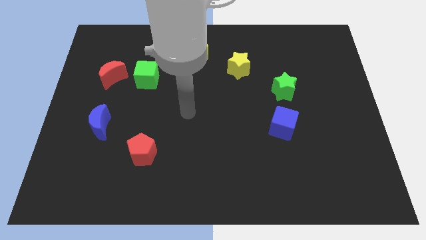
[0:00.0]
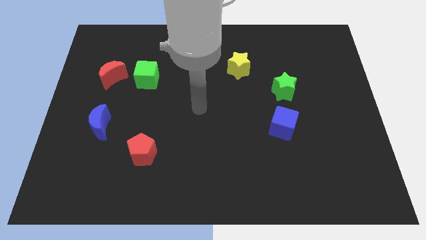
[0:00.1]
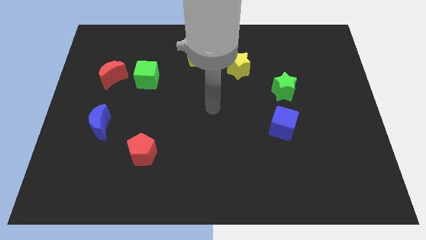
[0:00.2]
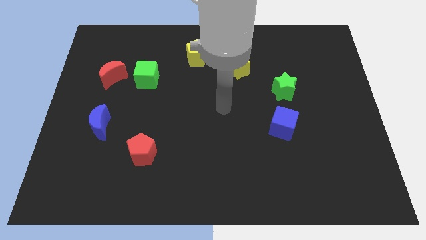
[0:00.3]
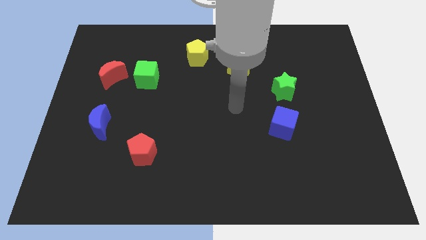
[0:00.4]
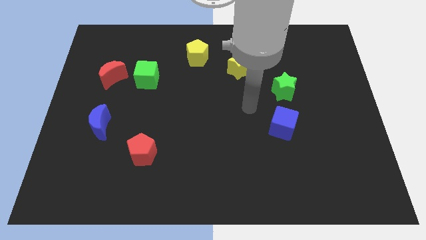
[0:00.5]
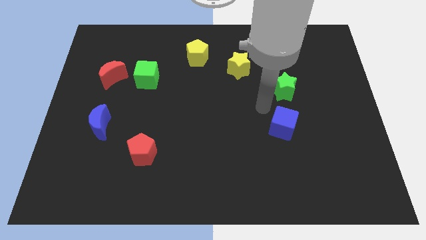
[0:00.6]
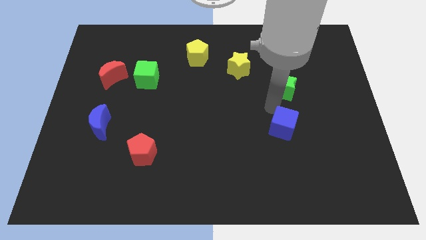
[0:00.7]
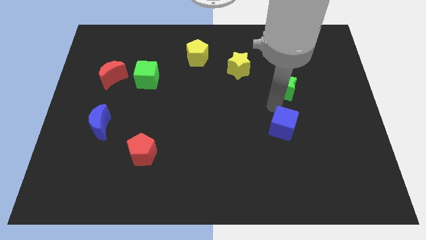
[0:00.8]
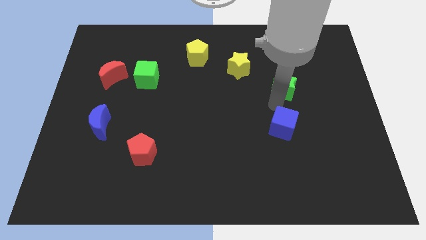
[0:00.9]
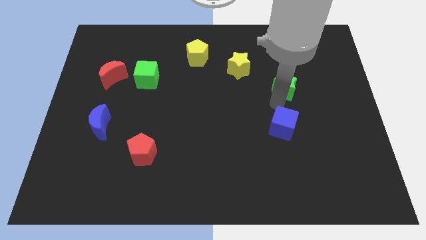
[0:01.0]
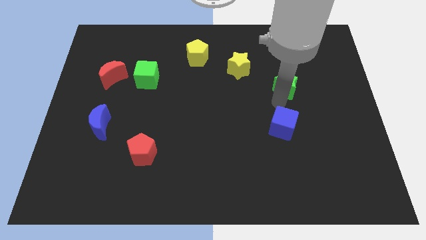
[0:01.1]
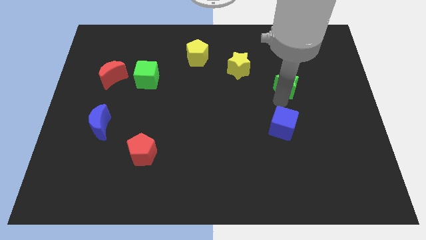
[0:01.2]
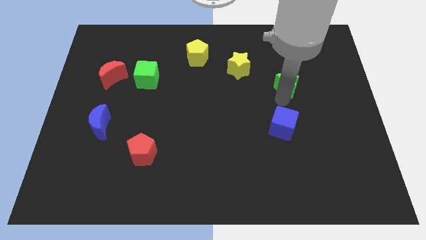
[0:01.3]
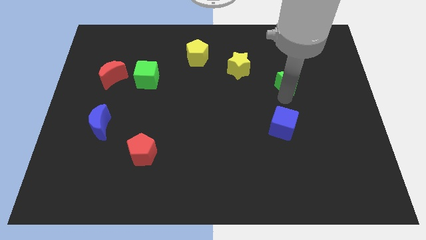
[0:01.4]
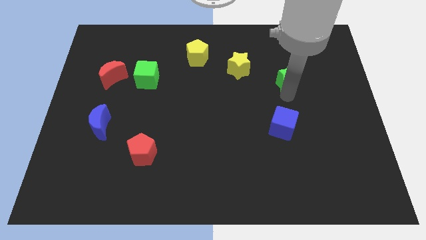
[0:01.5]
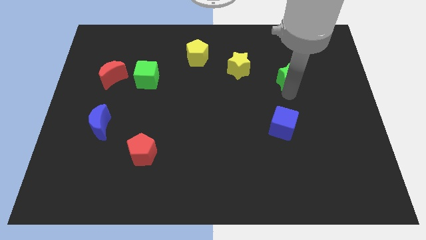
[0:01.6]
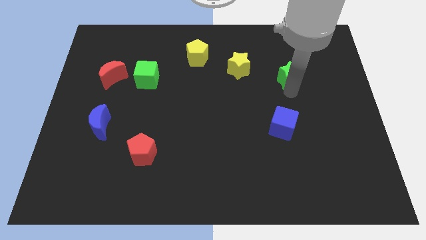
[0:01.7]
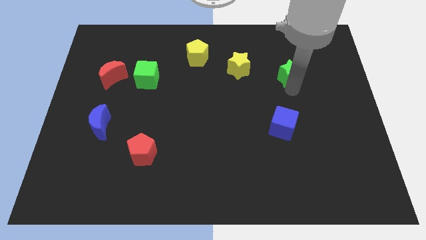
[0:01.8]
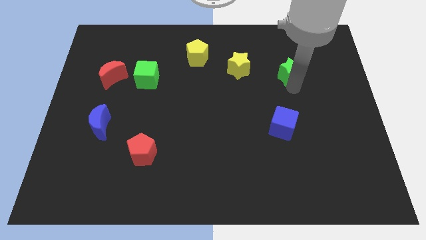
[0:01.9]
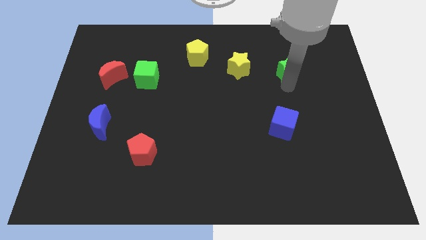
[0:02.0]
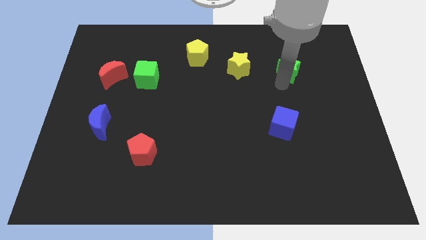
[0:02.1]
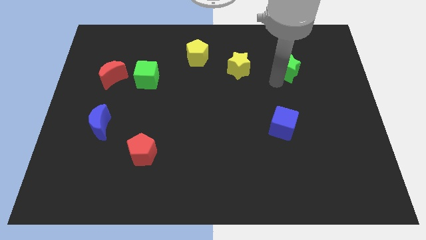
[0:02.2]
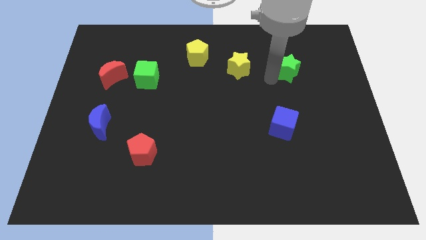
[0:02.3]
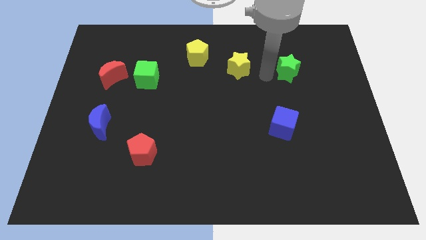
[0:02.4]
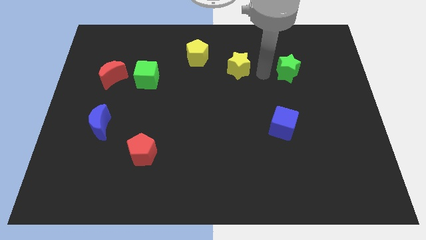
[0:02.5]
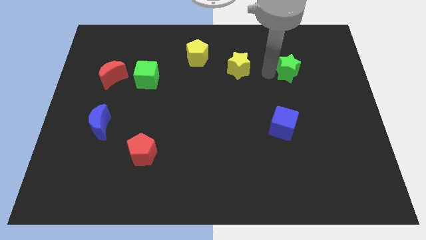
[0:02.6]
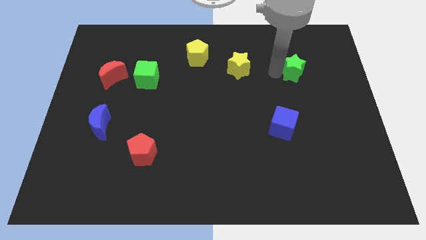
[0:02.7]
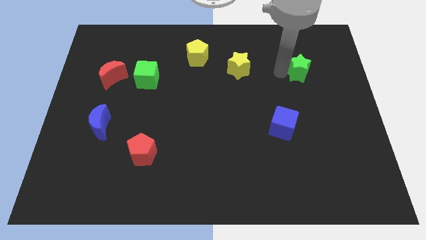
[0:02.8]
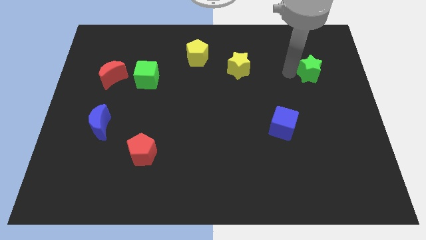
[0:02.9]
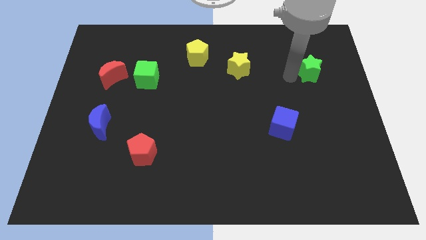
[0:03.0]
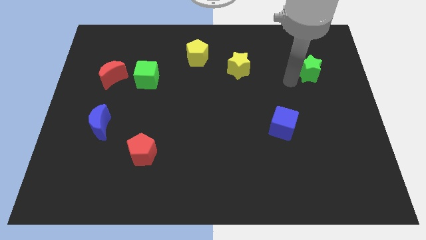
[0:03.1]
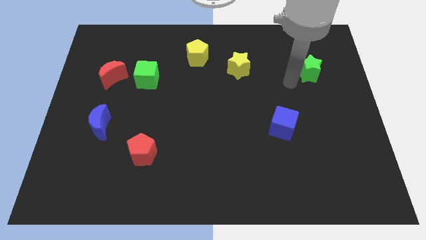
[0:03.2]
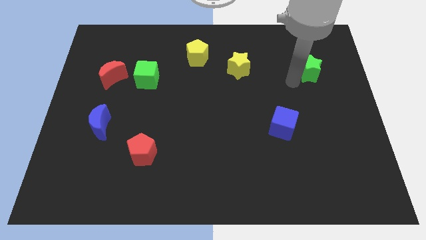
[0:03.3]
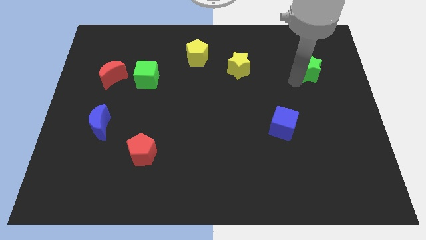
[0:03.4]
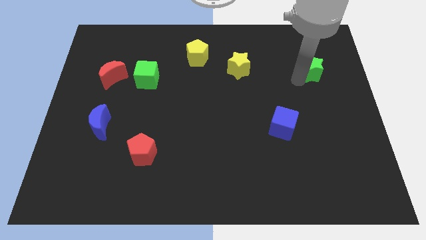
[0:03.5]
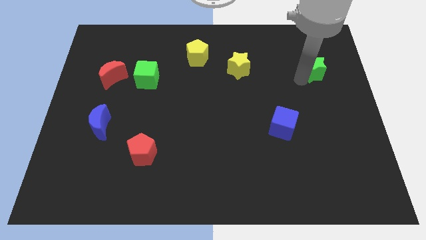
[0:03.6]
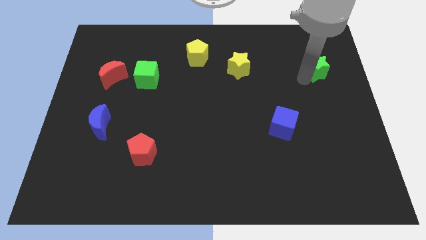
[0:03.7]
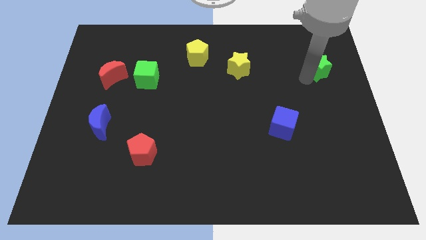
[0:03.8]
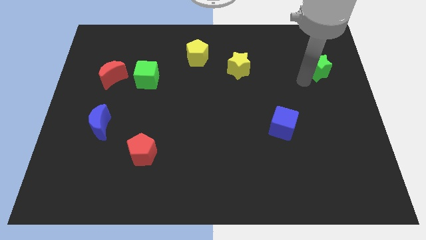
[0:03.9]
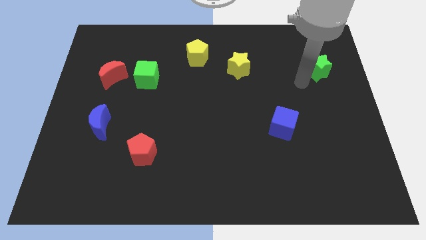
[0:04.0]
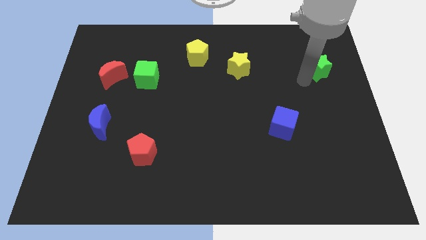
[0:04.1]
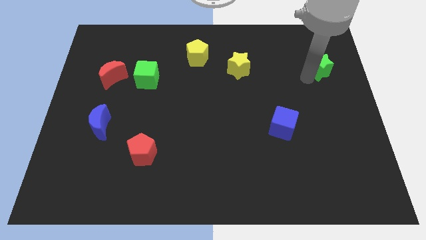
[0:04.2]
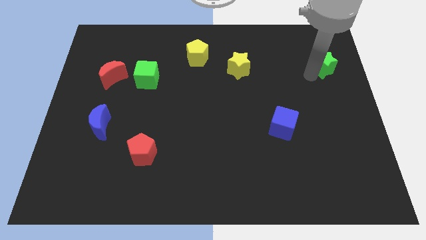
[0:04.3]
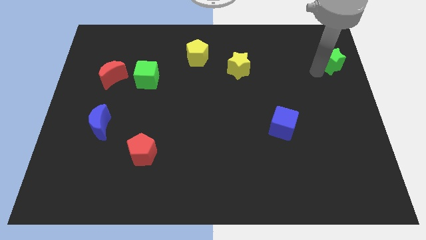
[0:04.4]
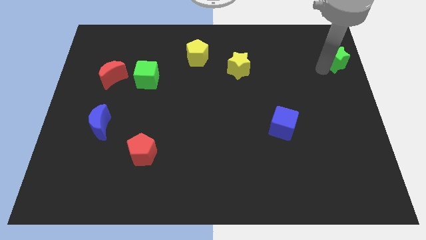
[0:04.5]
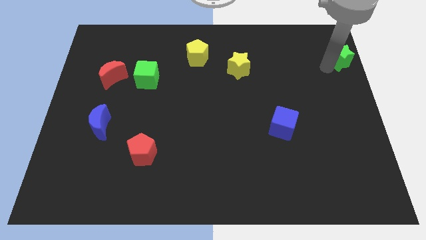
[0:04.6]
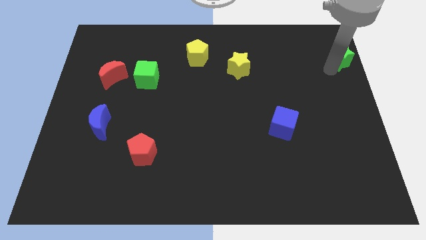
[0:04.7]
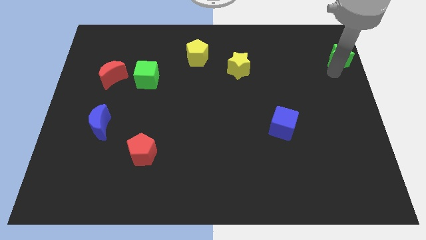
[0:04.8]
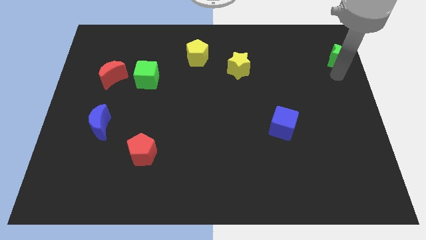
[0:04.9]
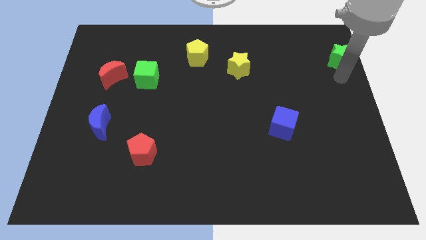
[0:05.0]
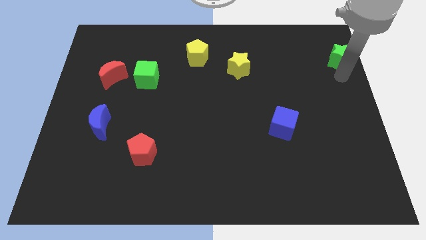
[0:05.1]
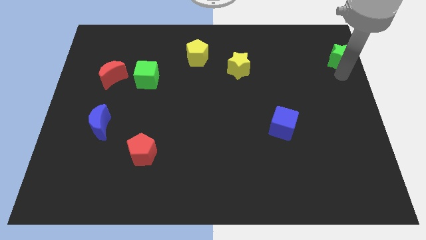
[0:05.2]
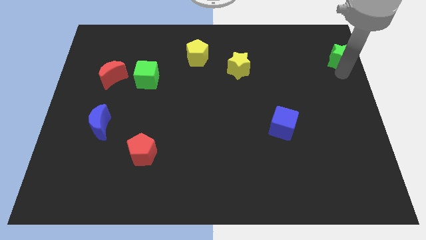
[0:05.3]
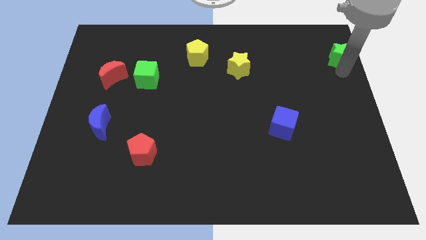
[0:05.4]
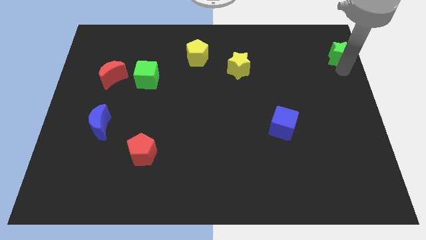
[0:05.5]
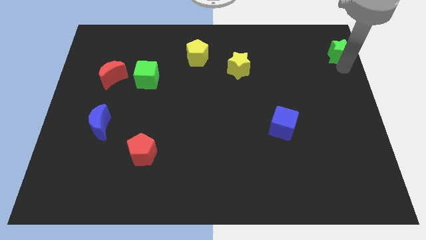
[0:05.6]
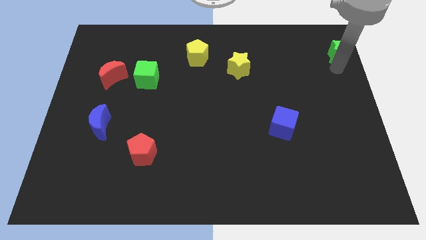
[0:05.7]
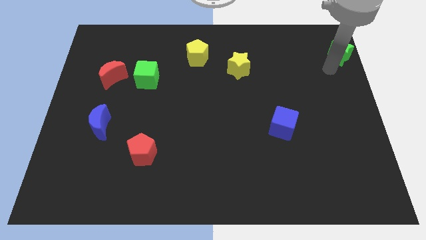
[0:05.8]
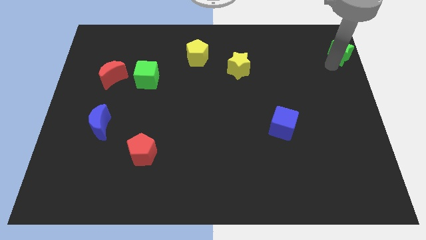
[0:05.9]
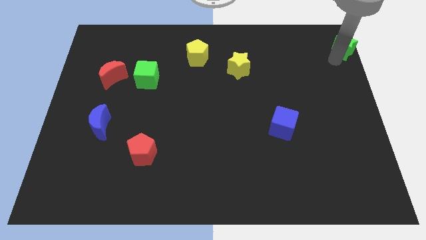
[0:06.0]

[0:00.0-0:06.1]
slide the green star to the top right corner
